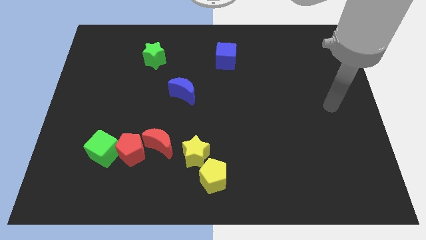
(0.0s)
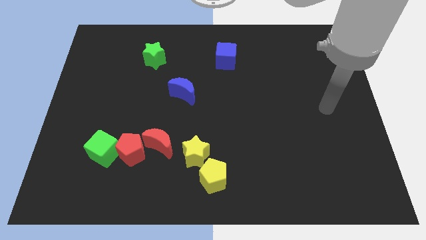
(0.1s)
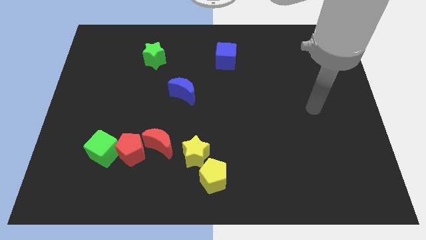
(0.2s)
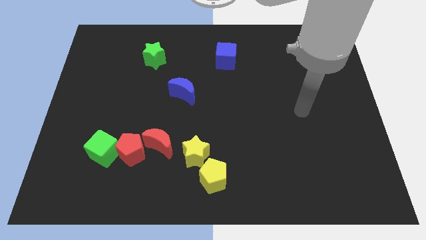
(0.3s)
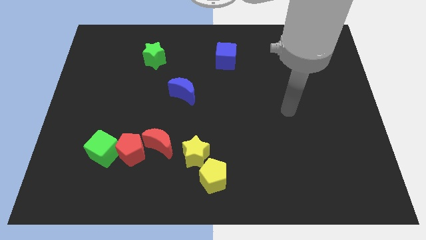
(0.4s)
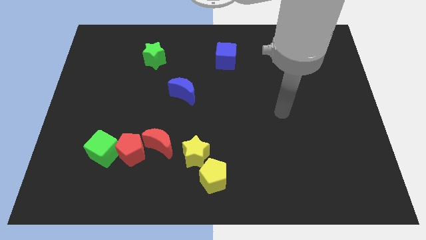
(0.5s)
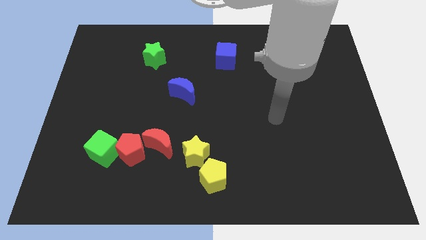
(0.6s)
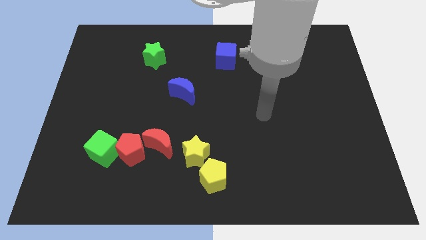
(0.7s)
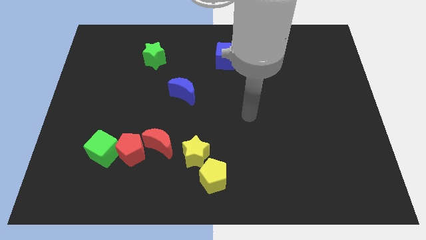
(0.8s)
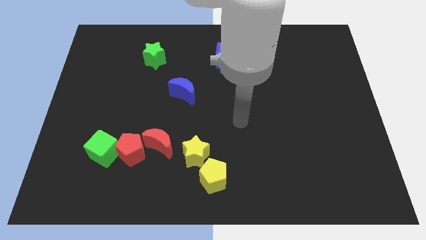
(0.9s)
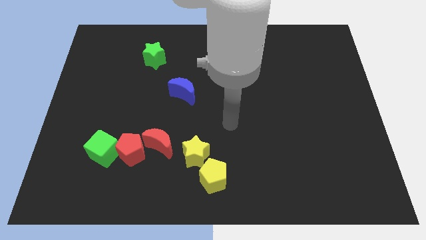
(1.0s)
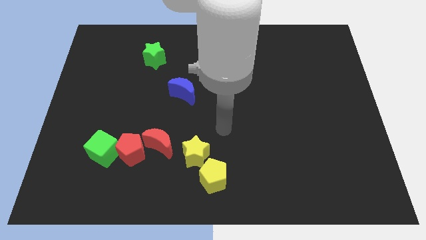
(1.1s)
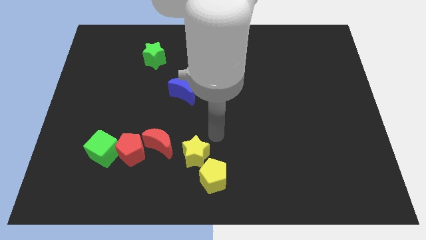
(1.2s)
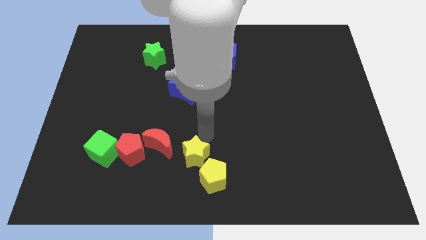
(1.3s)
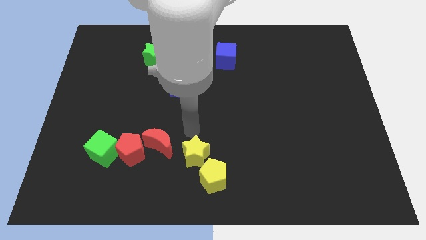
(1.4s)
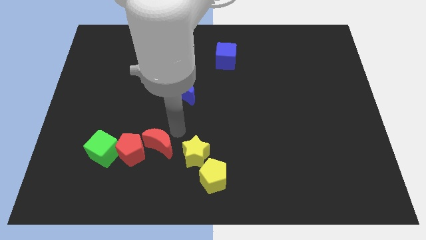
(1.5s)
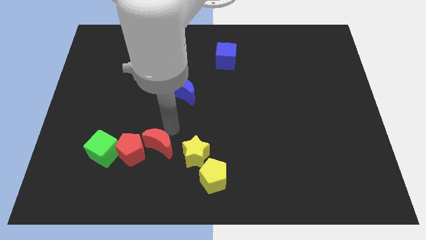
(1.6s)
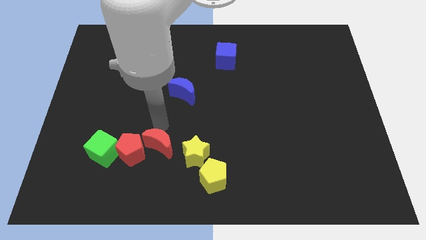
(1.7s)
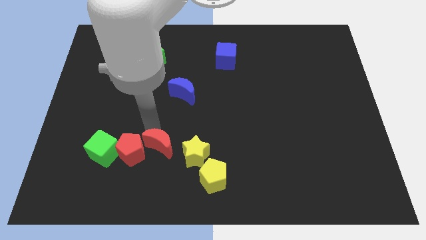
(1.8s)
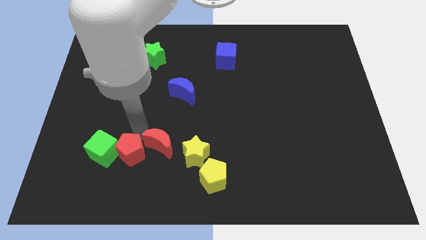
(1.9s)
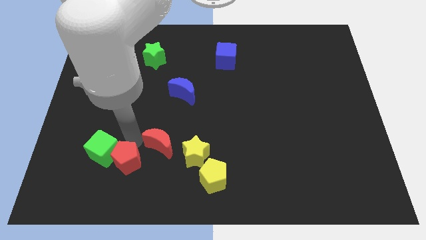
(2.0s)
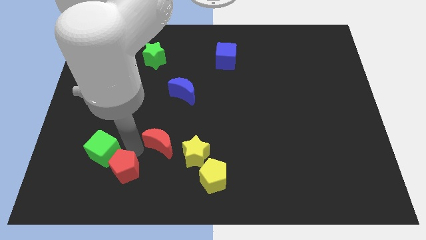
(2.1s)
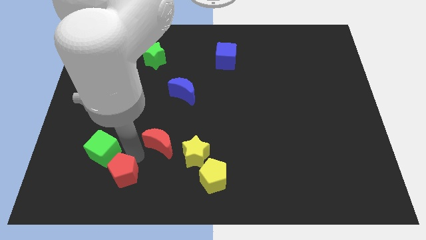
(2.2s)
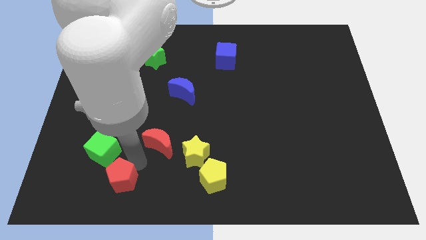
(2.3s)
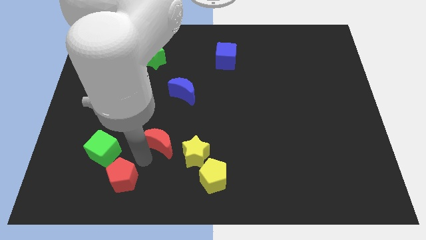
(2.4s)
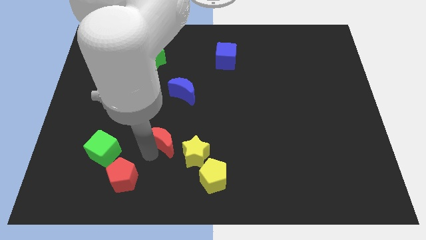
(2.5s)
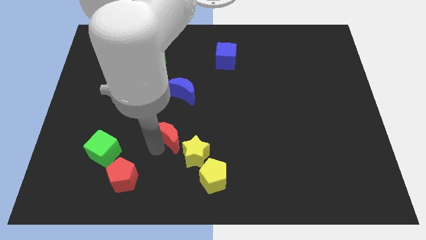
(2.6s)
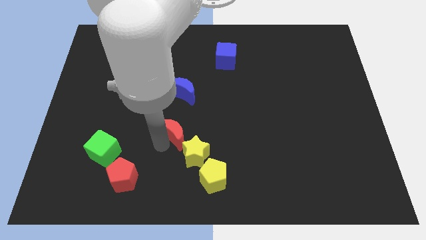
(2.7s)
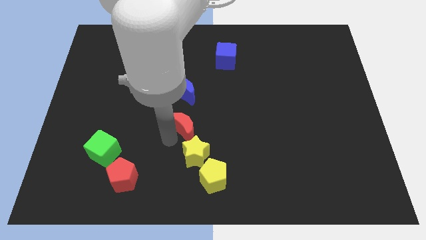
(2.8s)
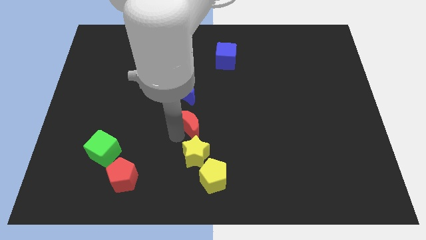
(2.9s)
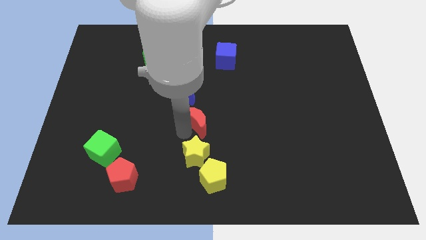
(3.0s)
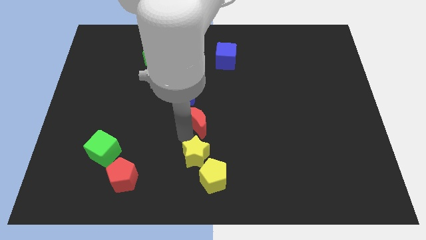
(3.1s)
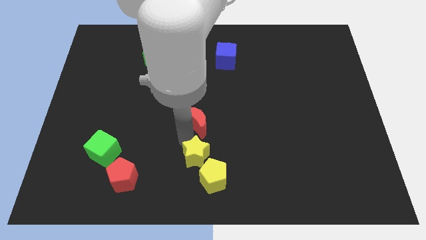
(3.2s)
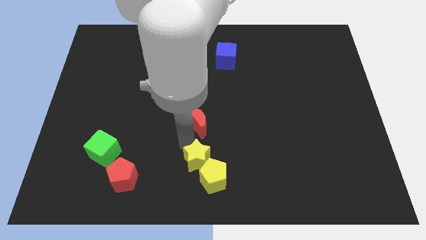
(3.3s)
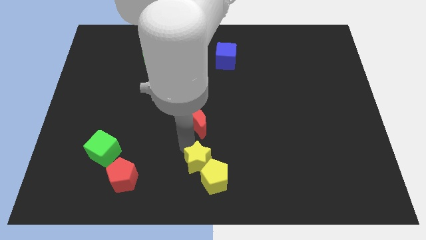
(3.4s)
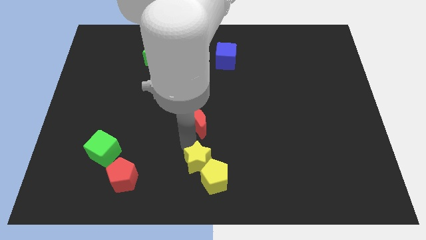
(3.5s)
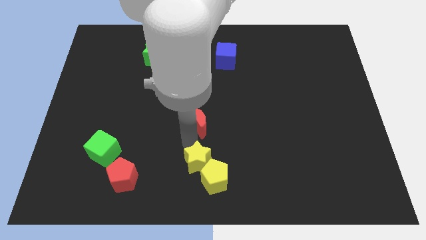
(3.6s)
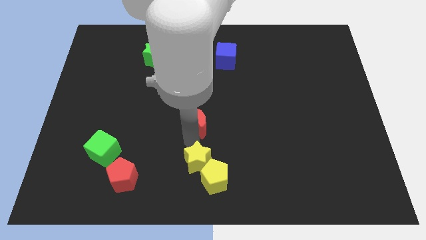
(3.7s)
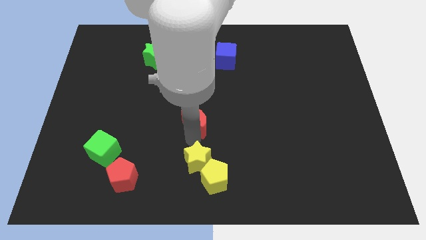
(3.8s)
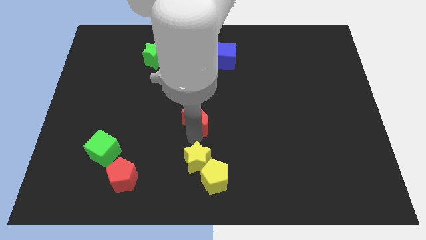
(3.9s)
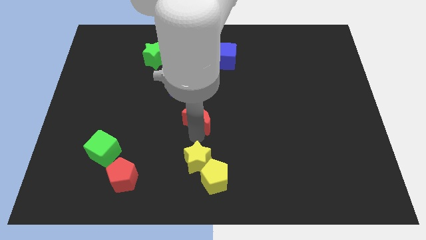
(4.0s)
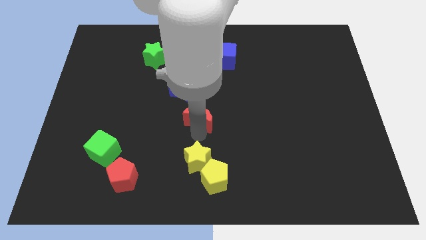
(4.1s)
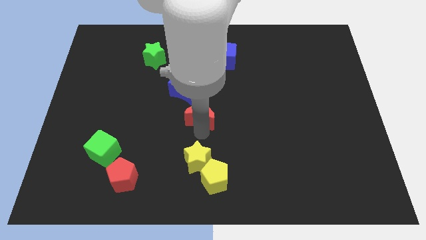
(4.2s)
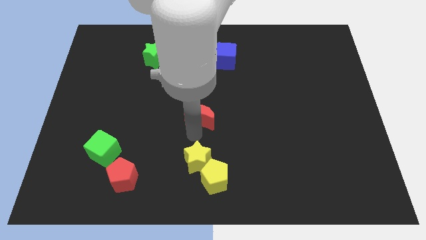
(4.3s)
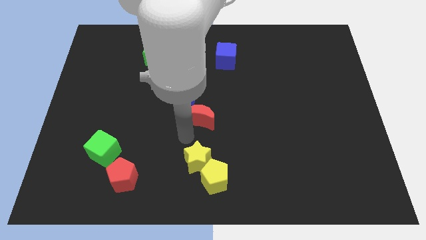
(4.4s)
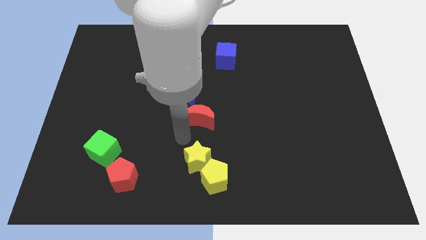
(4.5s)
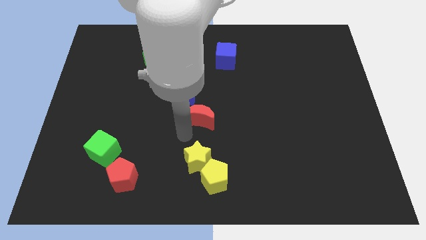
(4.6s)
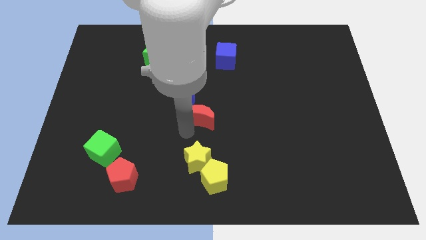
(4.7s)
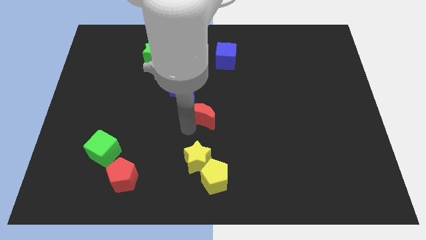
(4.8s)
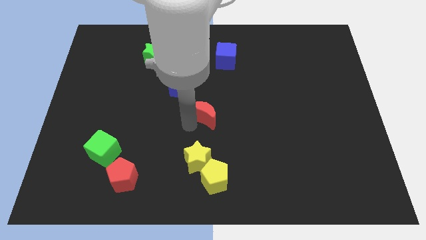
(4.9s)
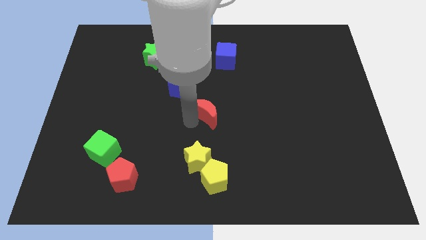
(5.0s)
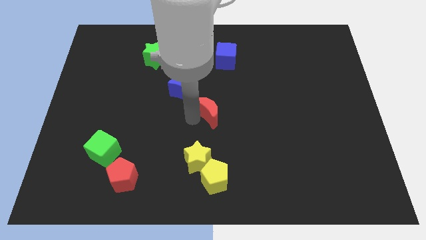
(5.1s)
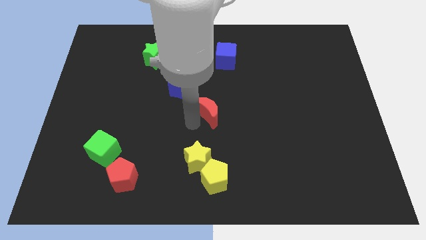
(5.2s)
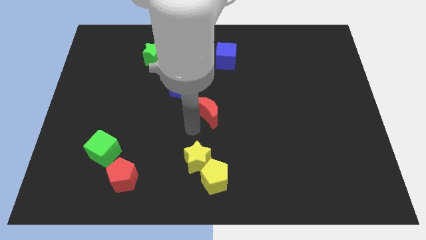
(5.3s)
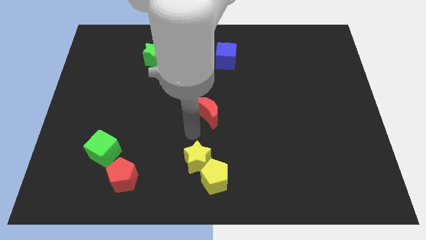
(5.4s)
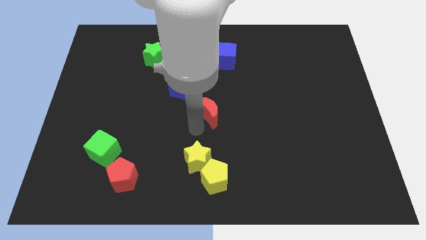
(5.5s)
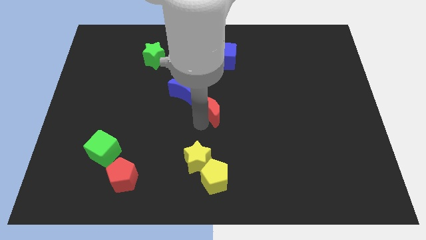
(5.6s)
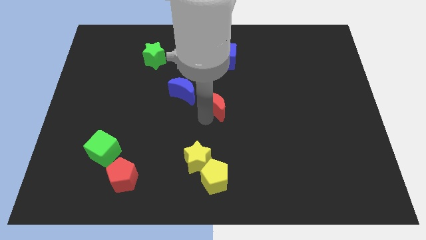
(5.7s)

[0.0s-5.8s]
move the red moon to the right of the blue moon

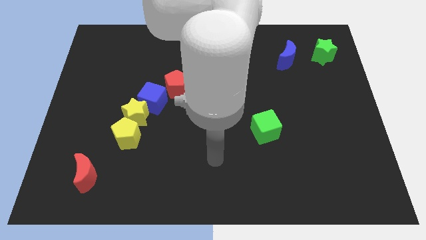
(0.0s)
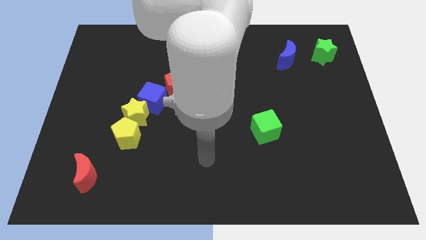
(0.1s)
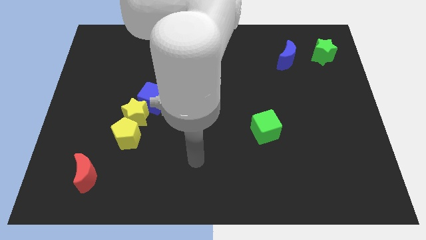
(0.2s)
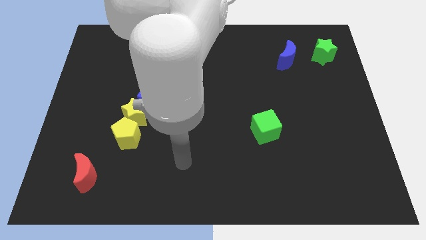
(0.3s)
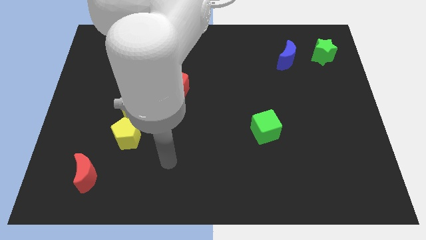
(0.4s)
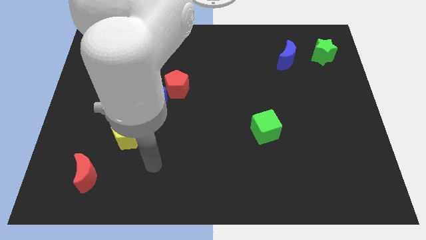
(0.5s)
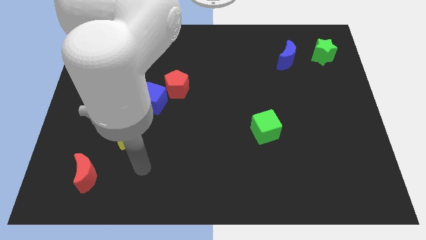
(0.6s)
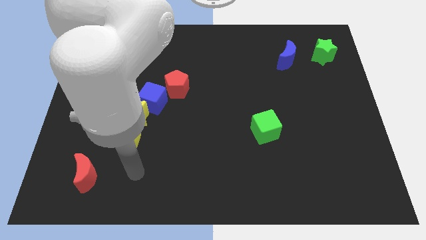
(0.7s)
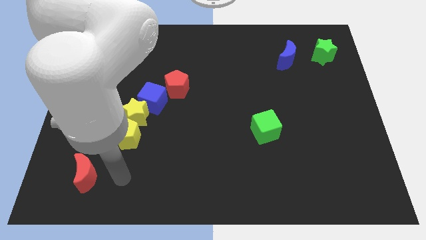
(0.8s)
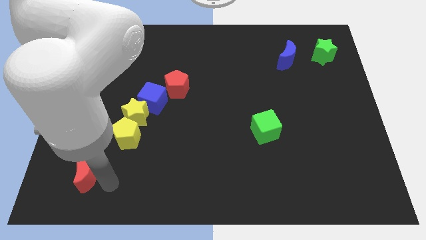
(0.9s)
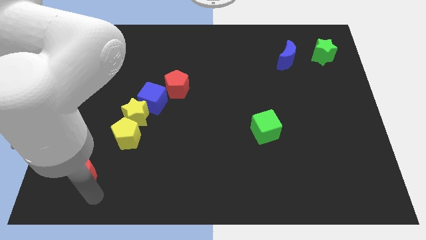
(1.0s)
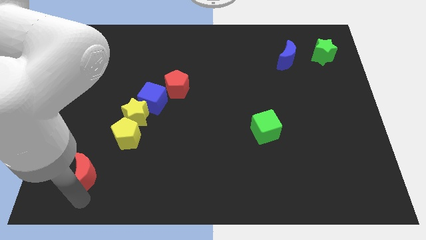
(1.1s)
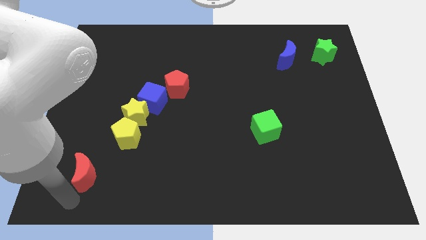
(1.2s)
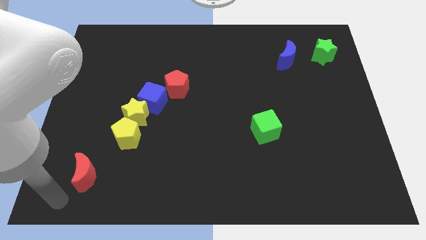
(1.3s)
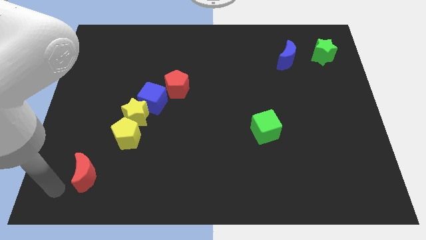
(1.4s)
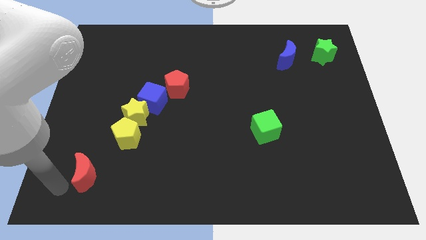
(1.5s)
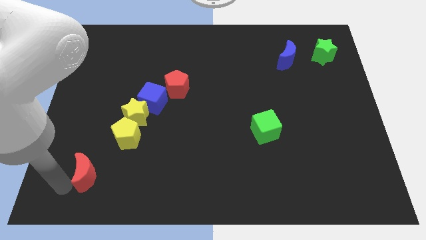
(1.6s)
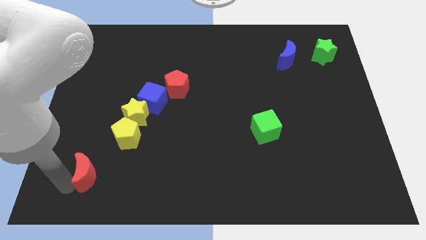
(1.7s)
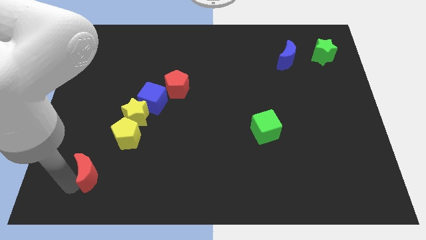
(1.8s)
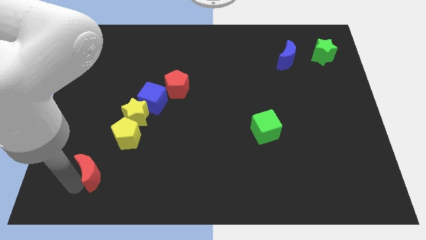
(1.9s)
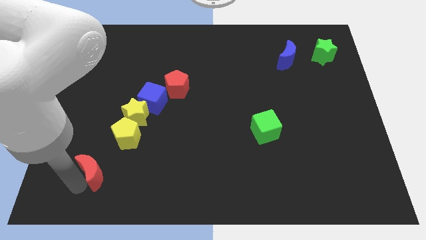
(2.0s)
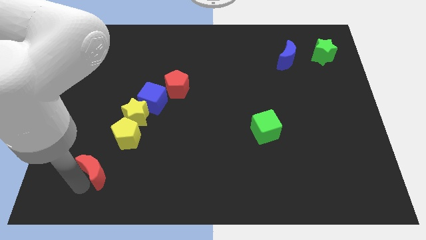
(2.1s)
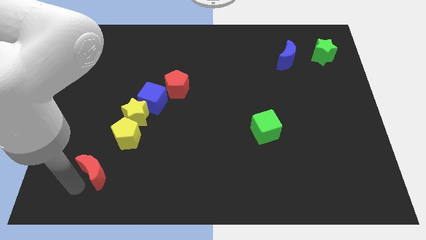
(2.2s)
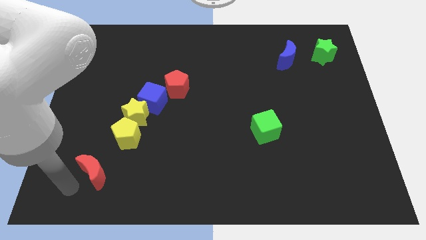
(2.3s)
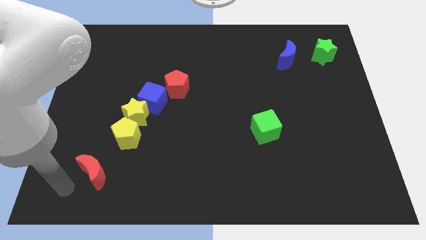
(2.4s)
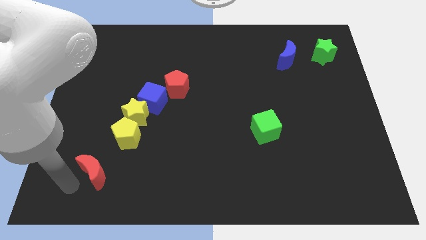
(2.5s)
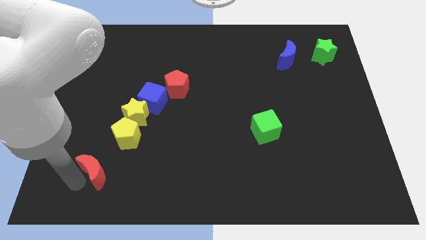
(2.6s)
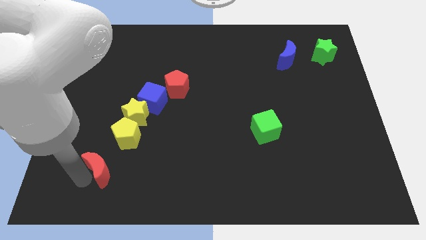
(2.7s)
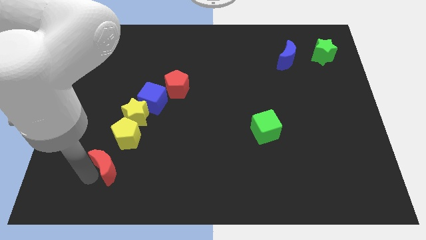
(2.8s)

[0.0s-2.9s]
put the red moon to the bottom side of the yellow star
